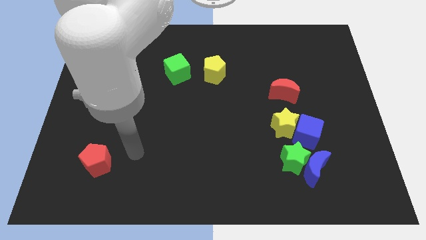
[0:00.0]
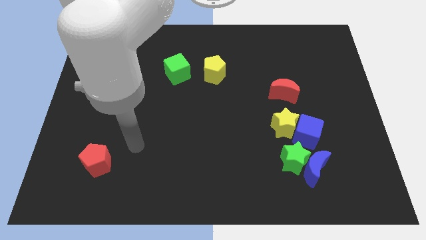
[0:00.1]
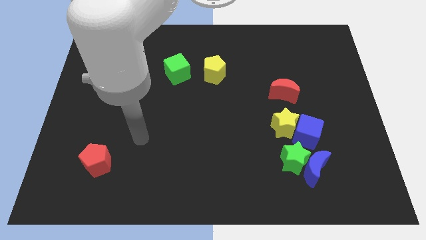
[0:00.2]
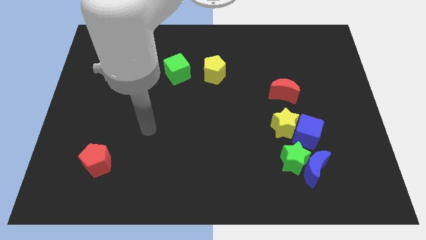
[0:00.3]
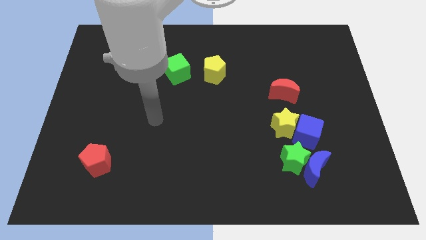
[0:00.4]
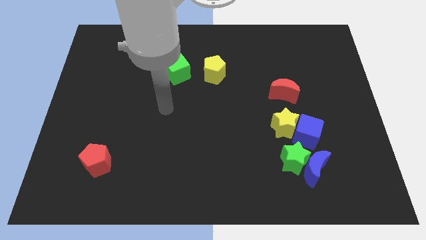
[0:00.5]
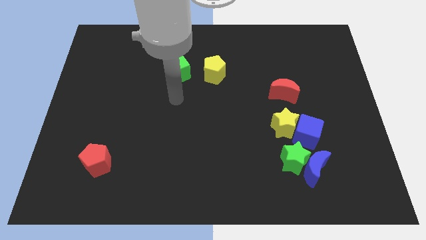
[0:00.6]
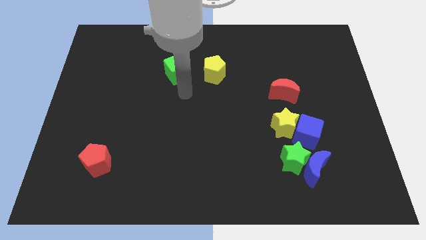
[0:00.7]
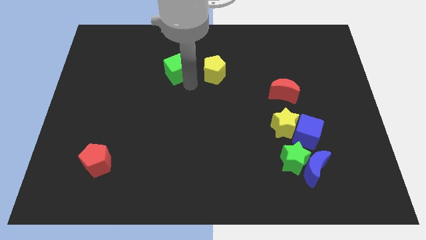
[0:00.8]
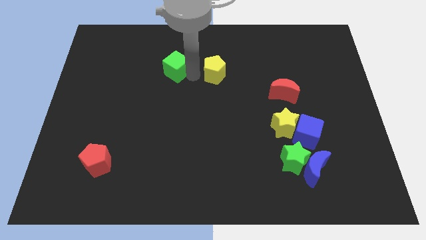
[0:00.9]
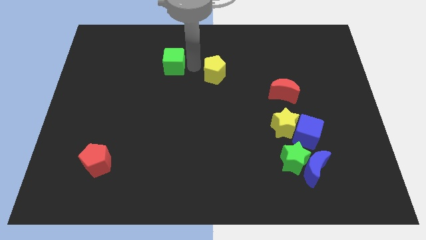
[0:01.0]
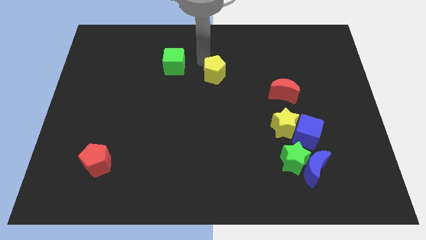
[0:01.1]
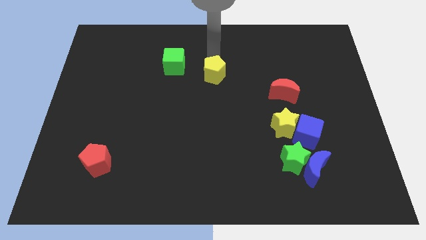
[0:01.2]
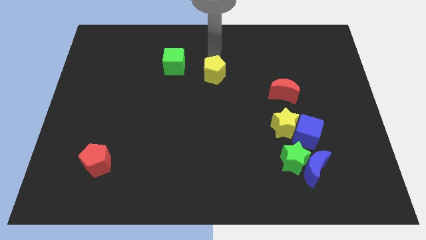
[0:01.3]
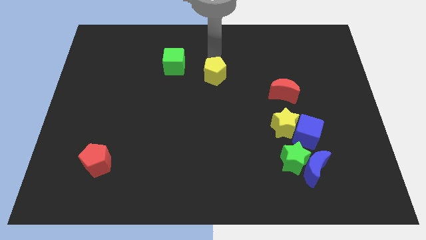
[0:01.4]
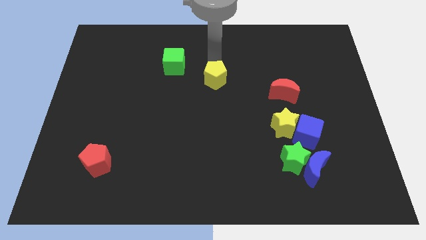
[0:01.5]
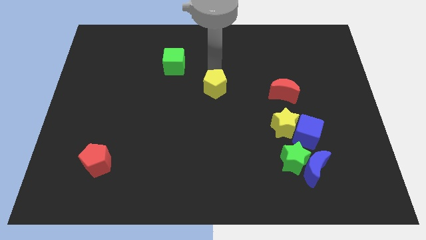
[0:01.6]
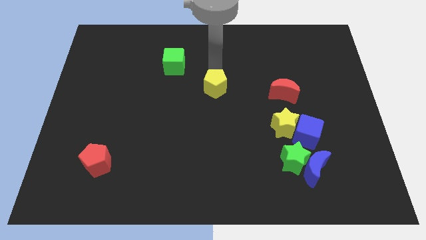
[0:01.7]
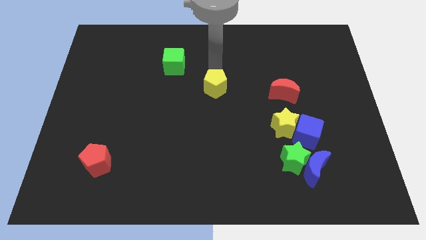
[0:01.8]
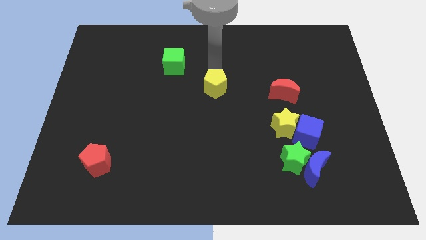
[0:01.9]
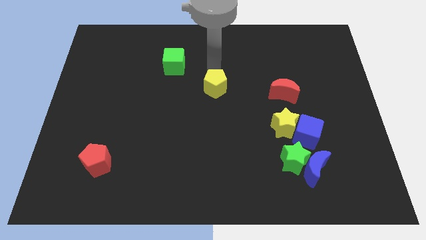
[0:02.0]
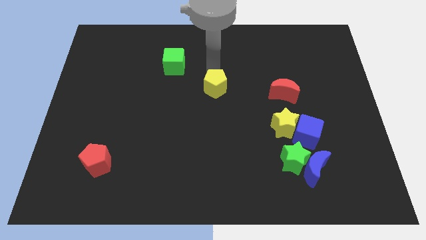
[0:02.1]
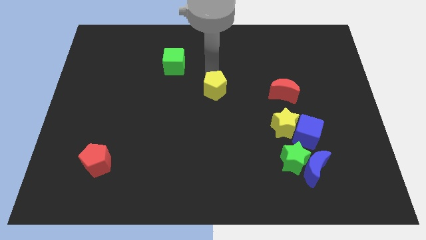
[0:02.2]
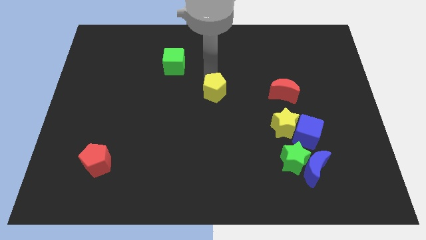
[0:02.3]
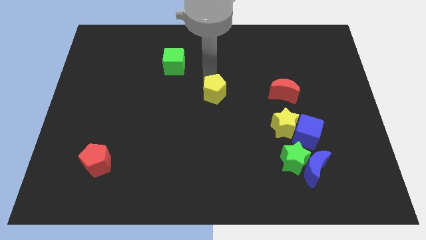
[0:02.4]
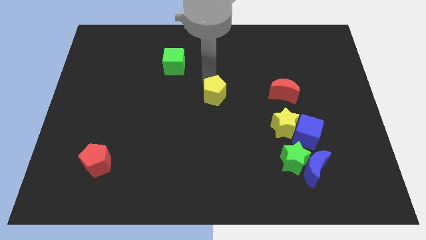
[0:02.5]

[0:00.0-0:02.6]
slide the yellow pentagon somewhat downwards

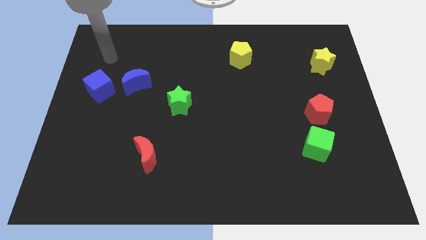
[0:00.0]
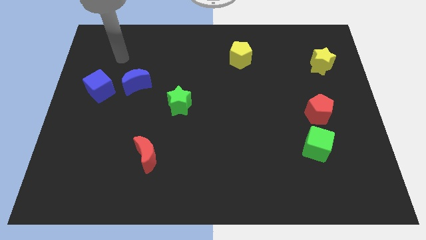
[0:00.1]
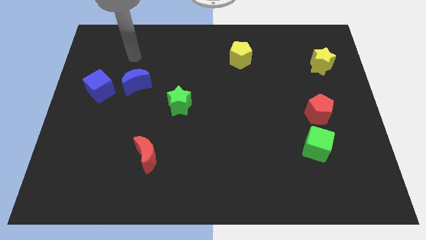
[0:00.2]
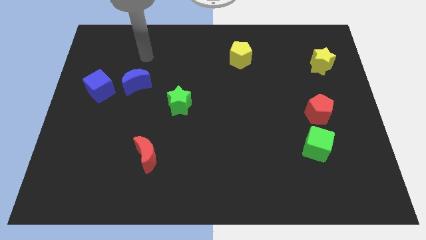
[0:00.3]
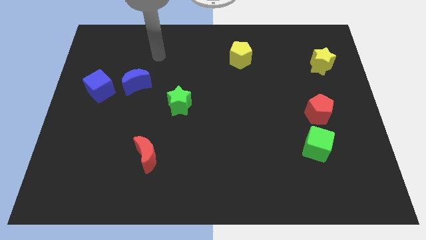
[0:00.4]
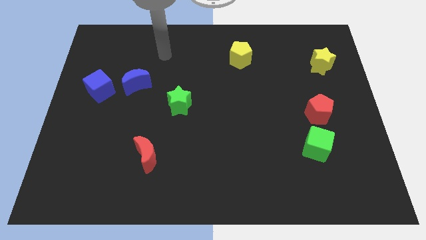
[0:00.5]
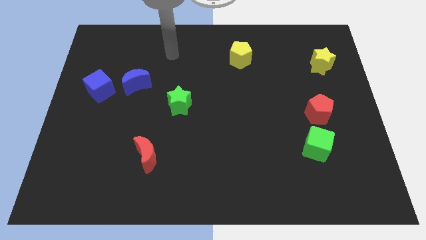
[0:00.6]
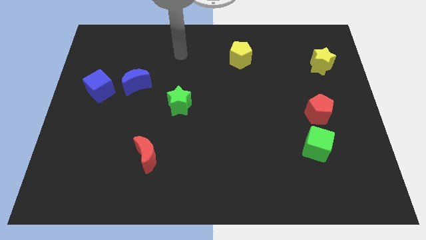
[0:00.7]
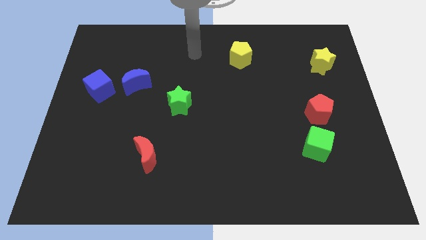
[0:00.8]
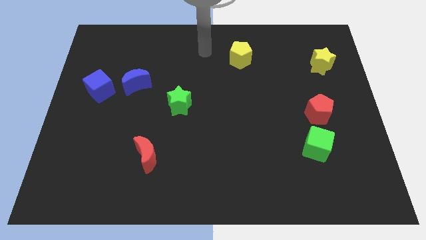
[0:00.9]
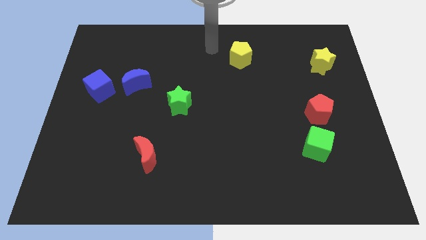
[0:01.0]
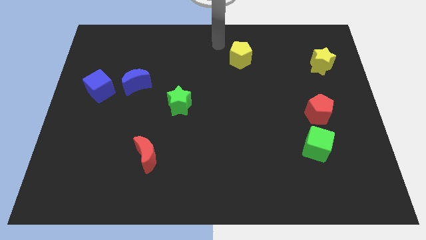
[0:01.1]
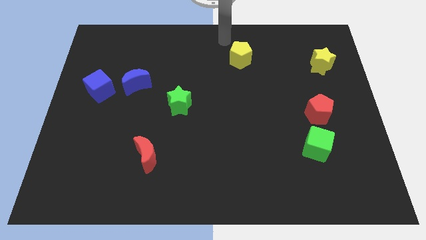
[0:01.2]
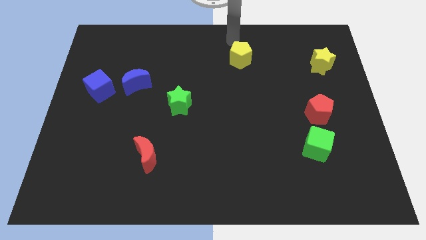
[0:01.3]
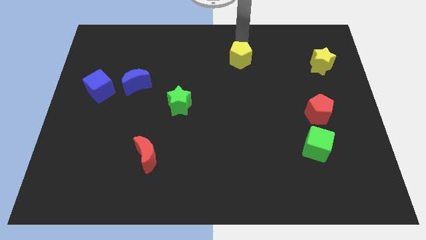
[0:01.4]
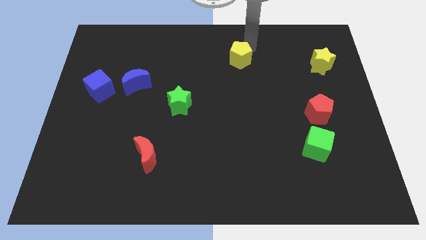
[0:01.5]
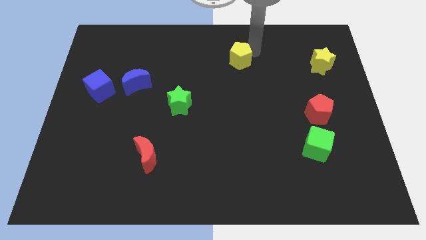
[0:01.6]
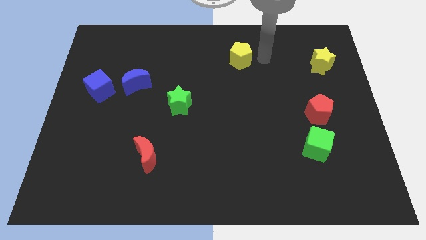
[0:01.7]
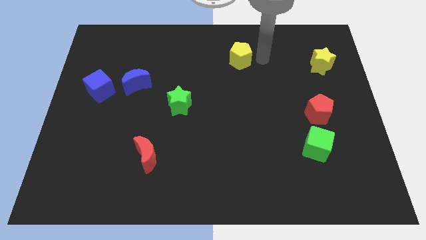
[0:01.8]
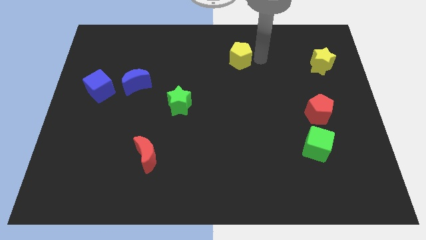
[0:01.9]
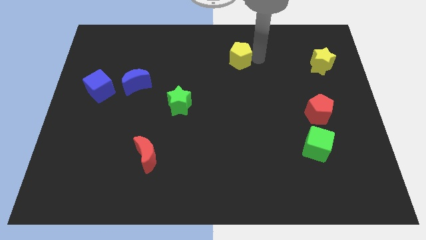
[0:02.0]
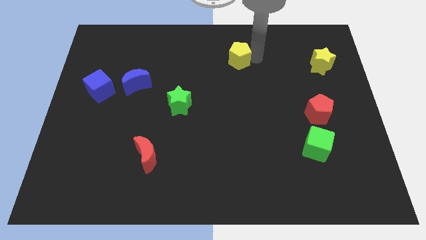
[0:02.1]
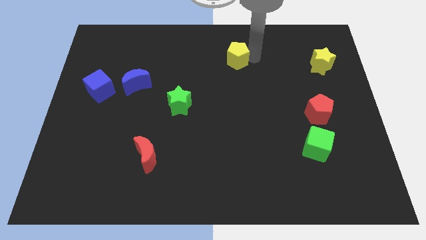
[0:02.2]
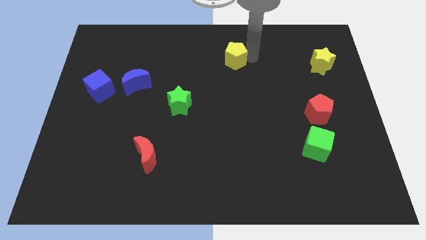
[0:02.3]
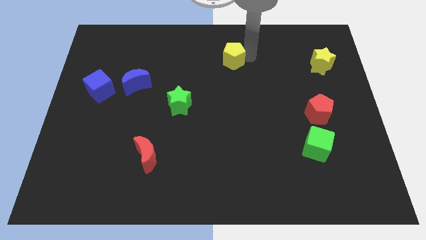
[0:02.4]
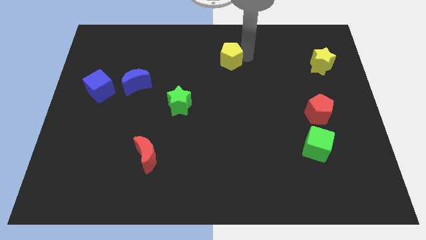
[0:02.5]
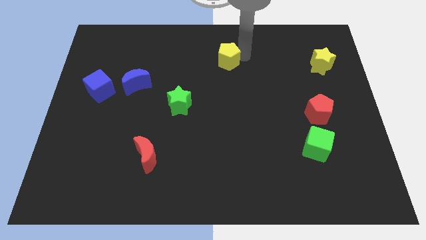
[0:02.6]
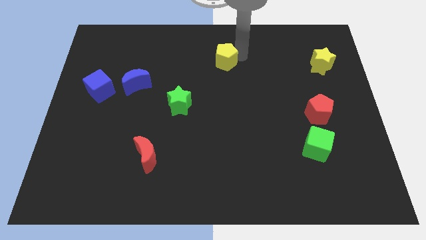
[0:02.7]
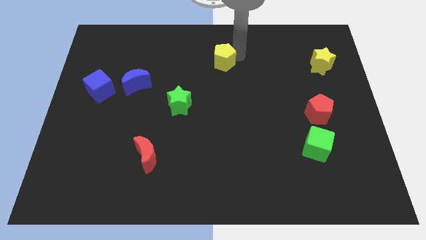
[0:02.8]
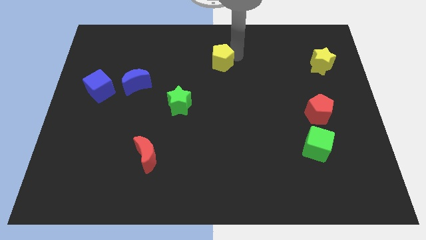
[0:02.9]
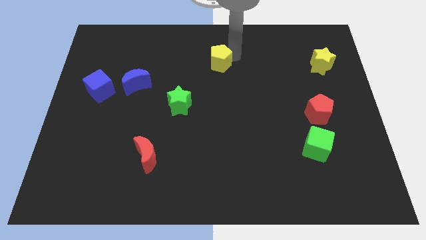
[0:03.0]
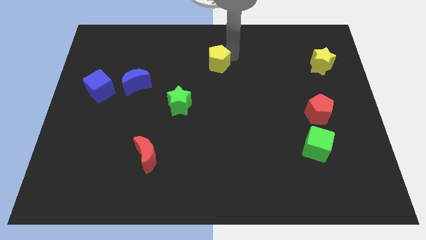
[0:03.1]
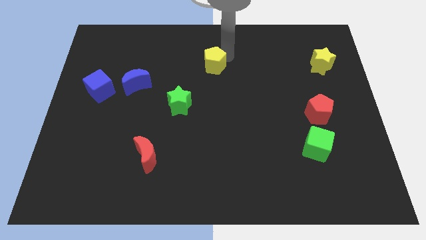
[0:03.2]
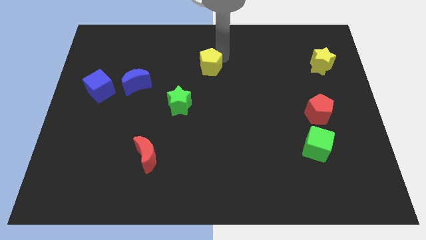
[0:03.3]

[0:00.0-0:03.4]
move the yellow pentagon slightly left

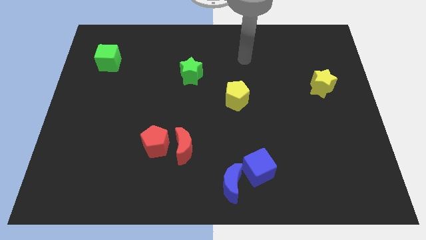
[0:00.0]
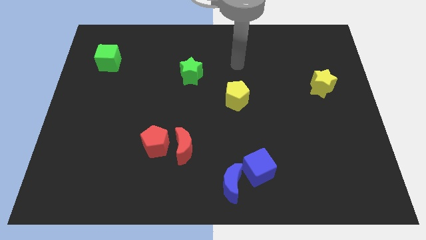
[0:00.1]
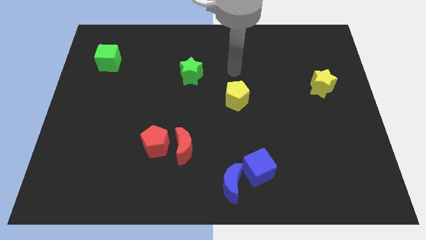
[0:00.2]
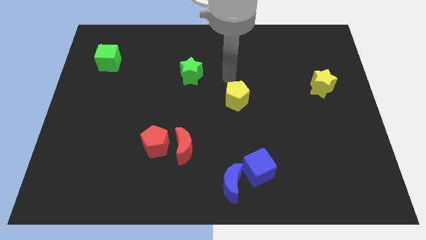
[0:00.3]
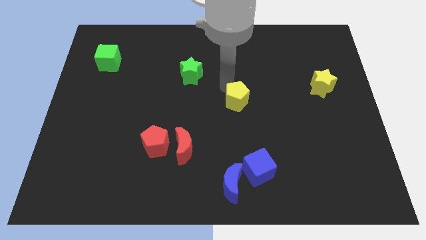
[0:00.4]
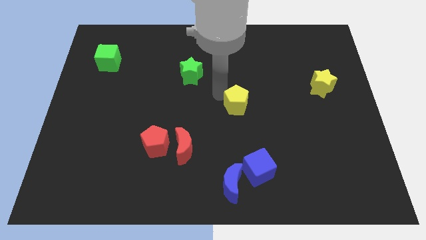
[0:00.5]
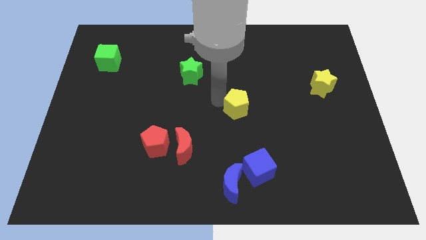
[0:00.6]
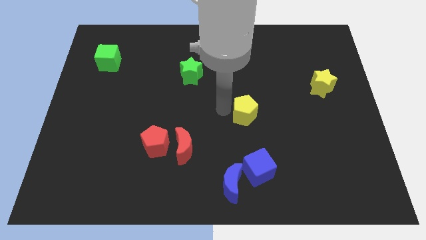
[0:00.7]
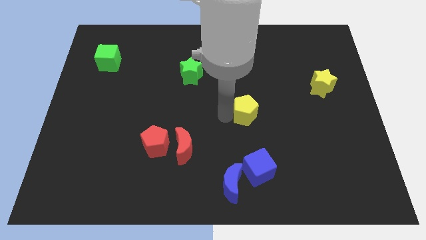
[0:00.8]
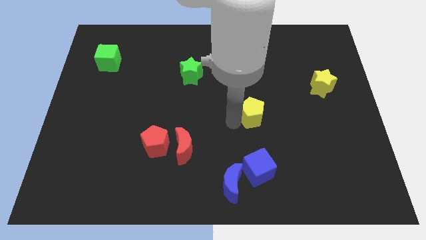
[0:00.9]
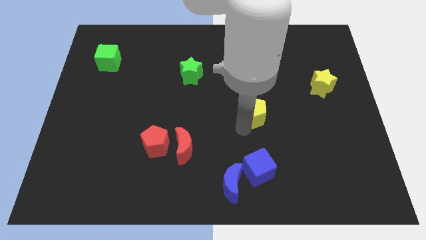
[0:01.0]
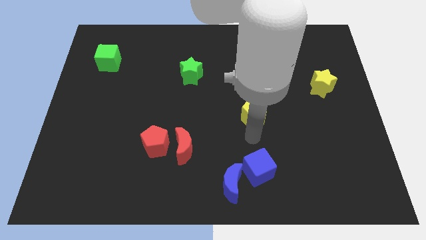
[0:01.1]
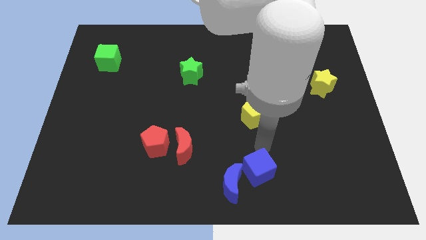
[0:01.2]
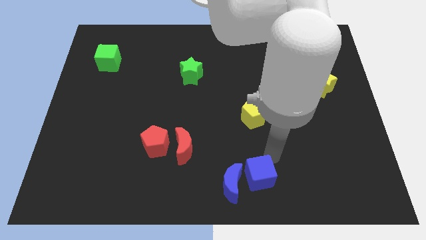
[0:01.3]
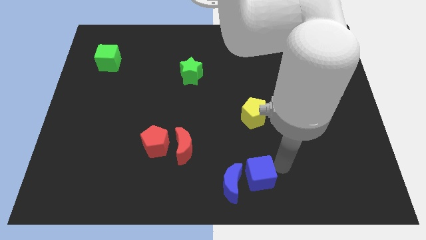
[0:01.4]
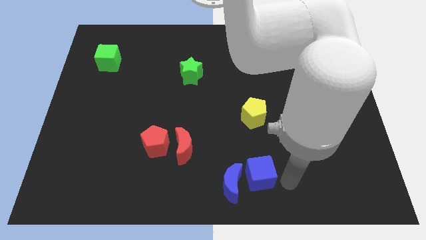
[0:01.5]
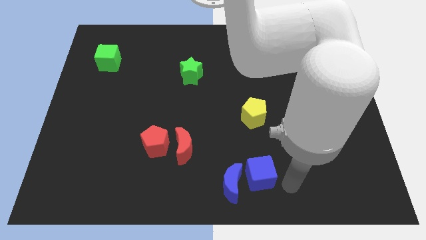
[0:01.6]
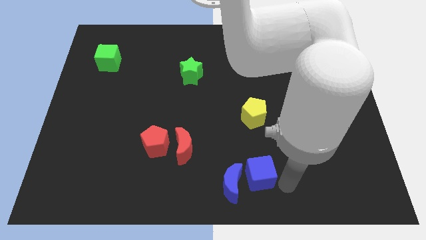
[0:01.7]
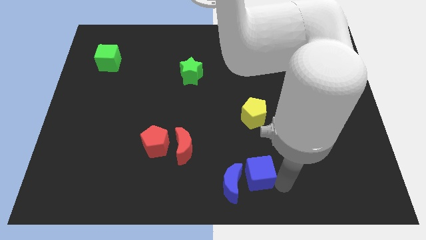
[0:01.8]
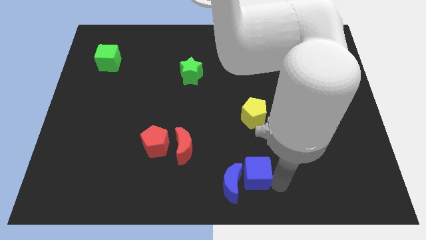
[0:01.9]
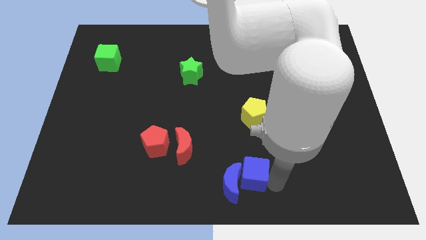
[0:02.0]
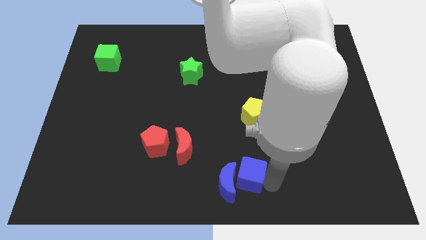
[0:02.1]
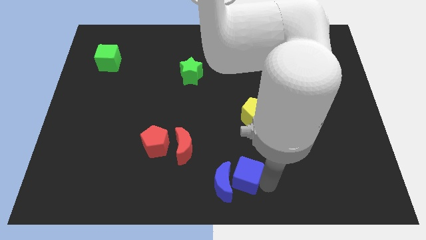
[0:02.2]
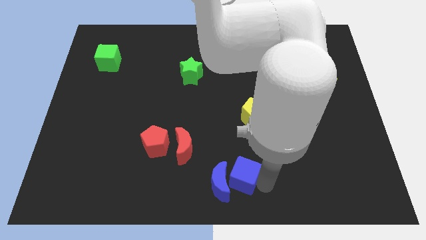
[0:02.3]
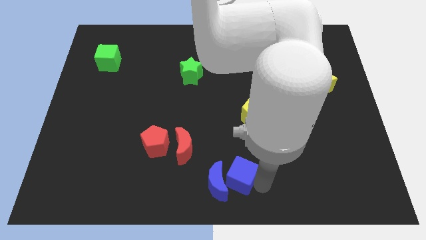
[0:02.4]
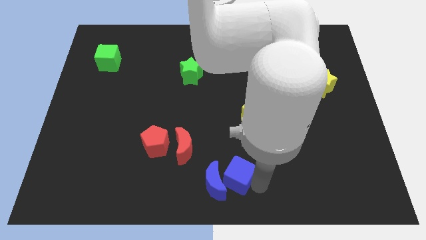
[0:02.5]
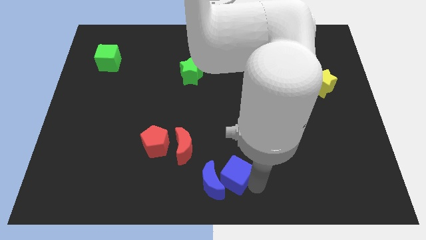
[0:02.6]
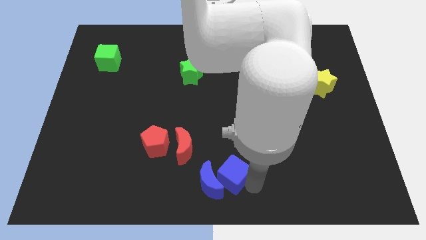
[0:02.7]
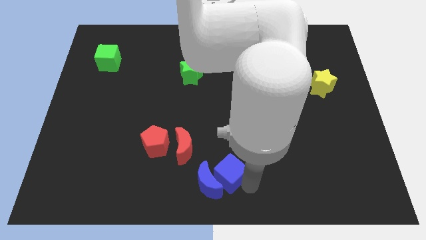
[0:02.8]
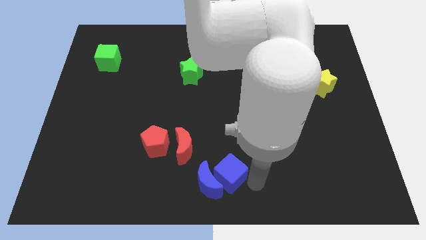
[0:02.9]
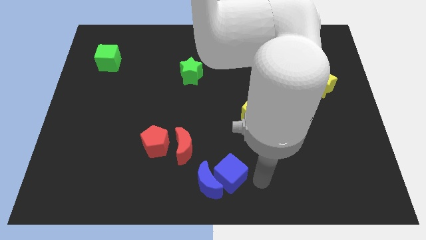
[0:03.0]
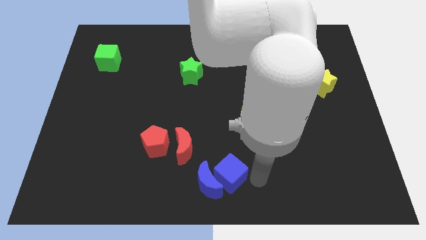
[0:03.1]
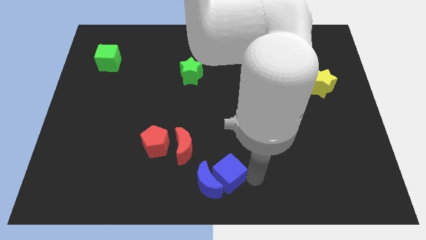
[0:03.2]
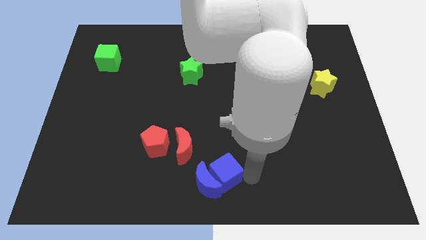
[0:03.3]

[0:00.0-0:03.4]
slightly slide the blue cube to the left
